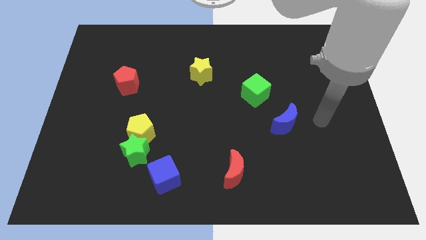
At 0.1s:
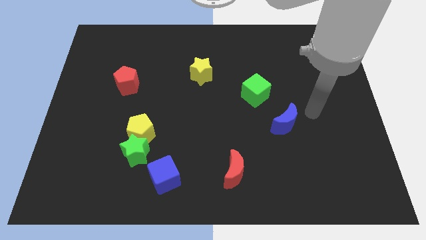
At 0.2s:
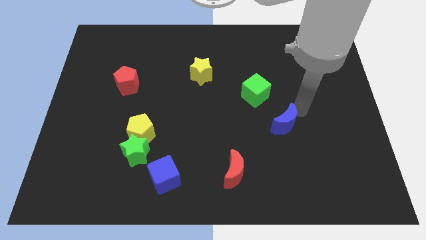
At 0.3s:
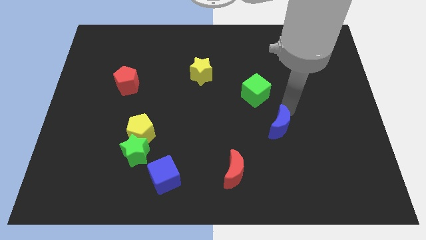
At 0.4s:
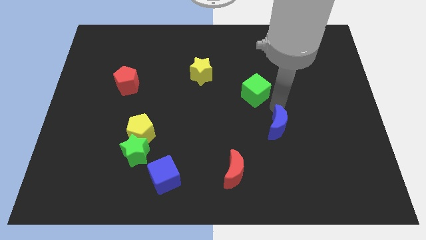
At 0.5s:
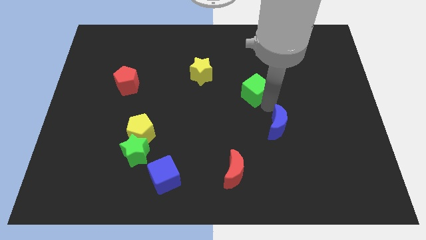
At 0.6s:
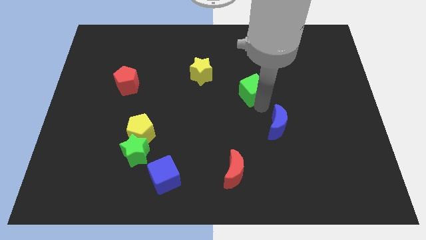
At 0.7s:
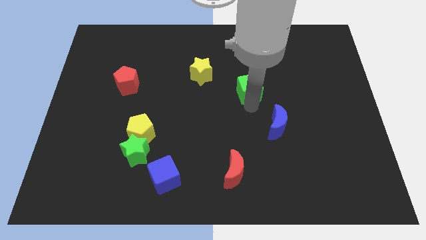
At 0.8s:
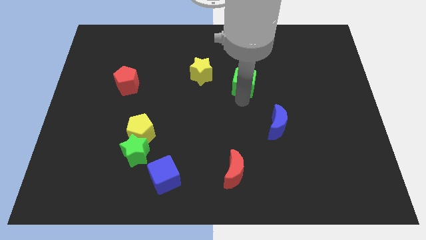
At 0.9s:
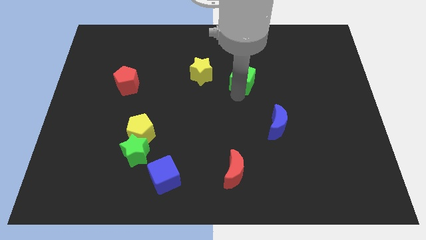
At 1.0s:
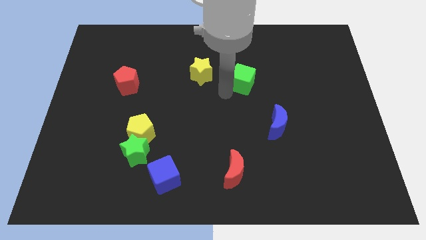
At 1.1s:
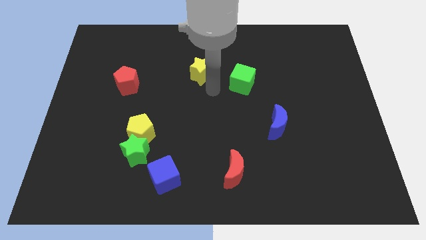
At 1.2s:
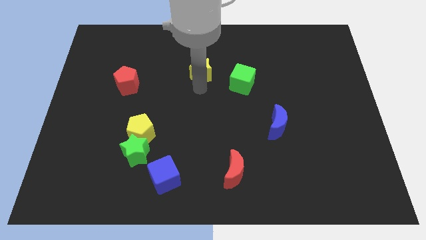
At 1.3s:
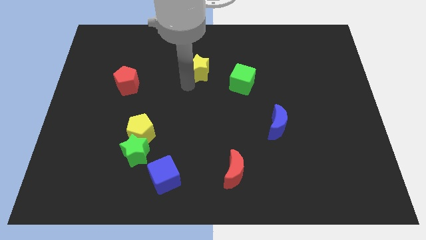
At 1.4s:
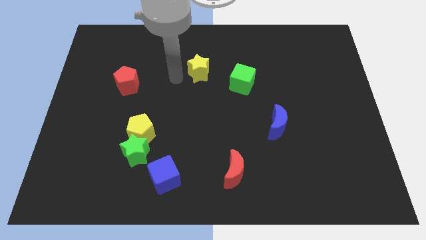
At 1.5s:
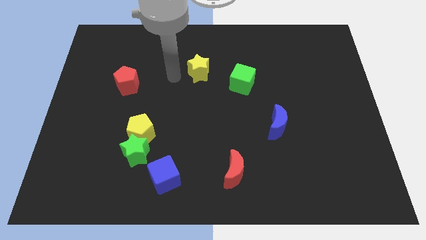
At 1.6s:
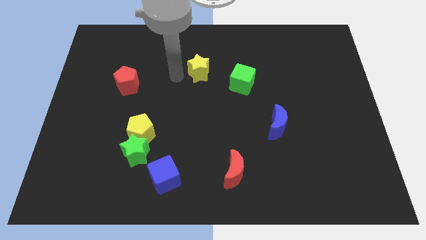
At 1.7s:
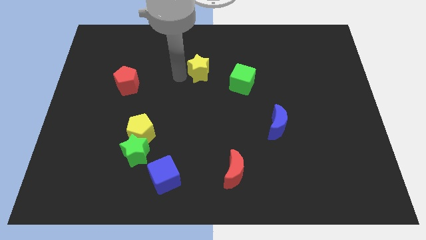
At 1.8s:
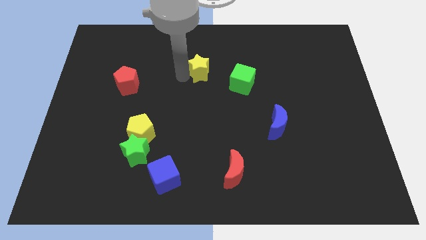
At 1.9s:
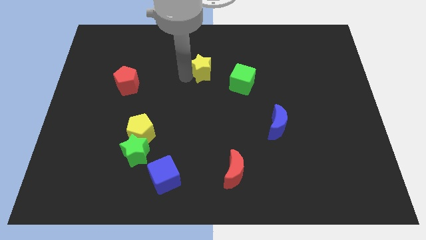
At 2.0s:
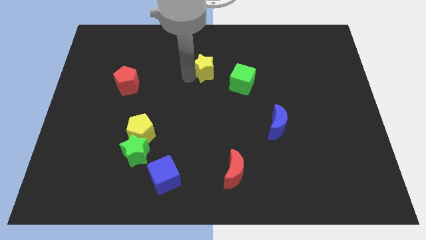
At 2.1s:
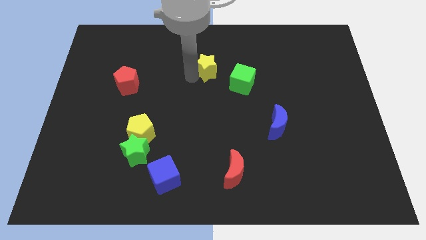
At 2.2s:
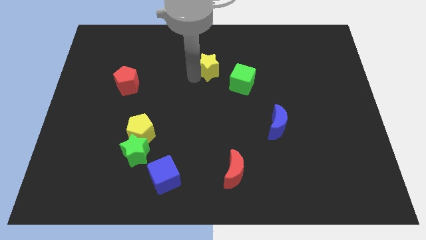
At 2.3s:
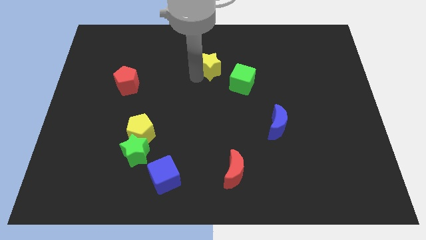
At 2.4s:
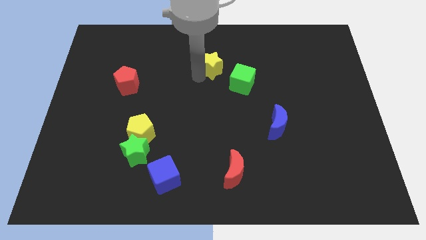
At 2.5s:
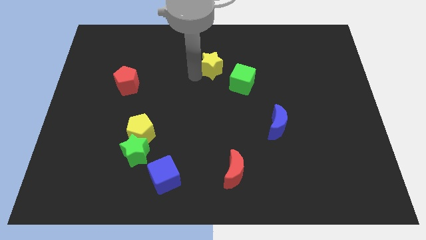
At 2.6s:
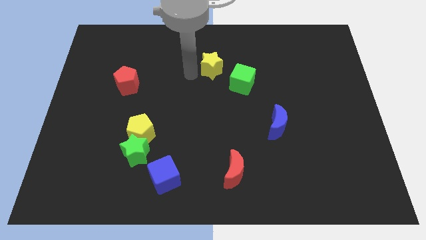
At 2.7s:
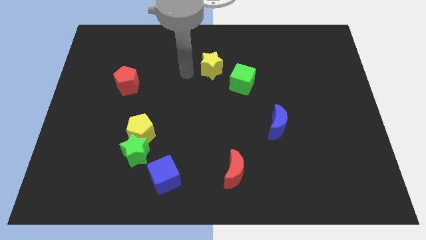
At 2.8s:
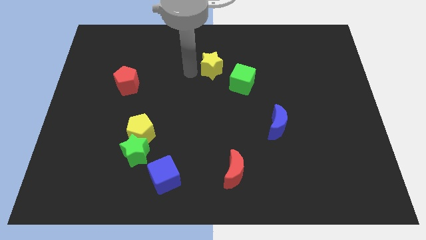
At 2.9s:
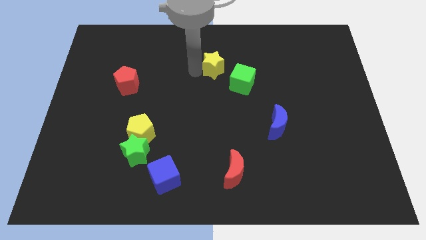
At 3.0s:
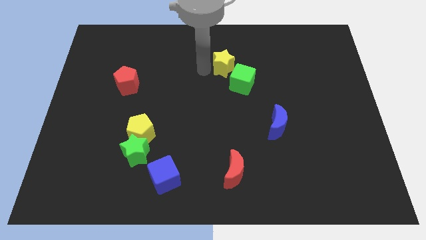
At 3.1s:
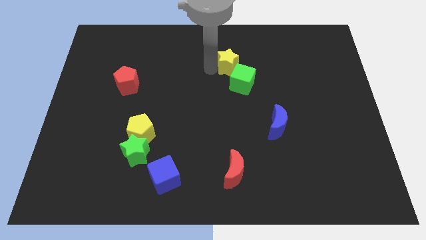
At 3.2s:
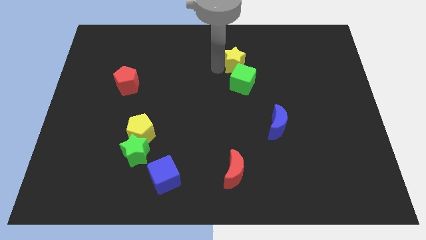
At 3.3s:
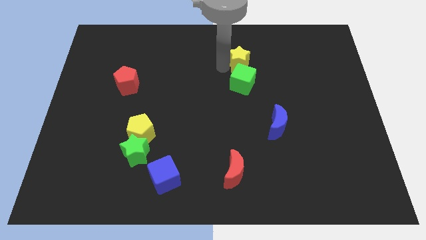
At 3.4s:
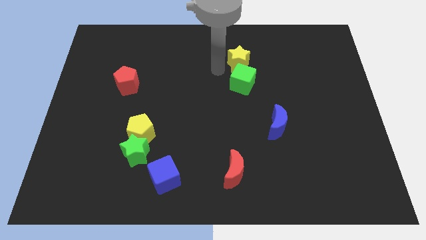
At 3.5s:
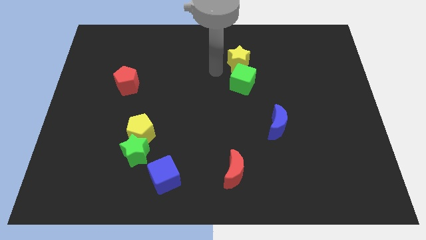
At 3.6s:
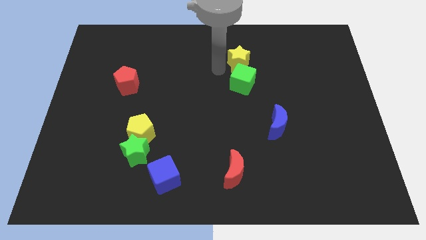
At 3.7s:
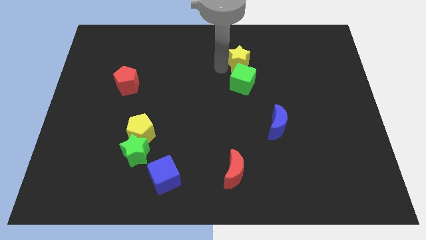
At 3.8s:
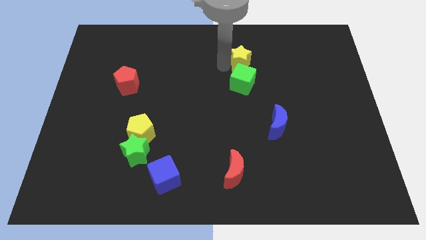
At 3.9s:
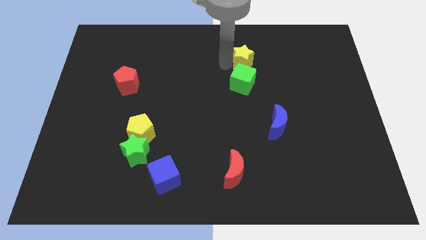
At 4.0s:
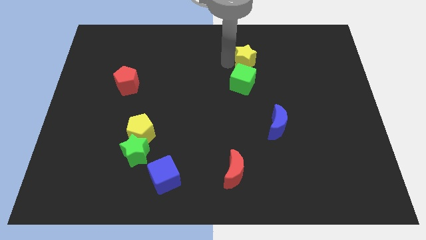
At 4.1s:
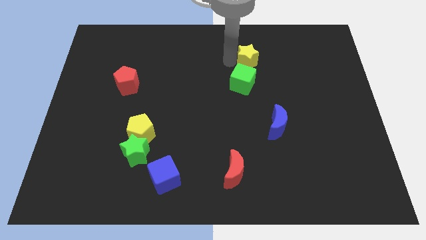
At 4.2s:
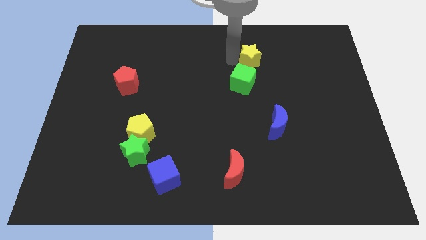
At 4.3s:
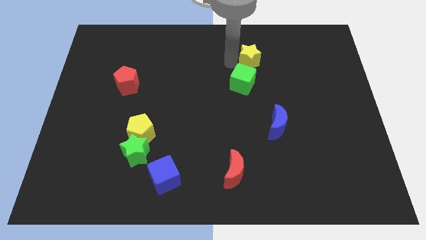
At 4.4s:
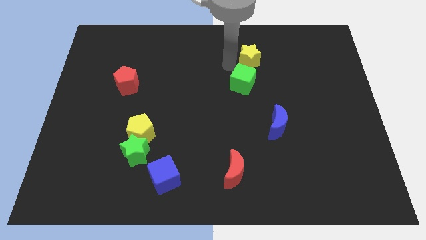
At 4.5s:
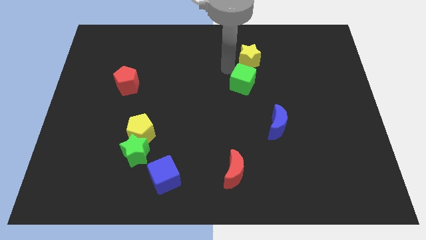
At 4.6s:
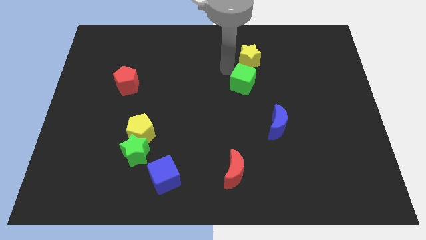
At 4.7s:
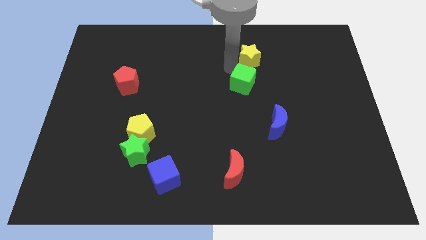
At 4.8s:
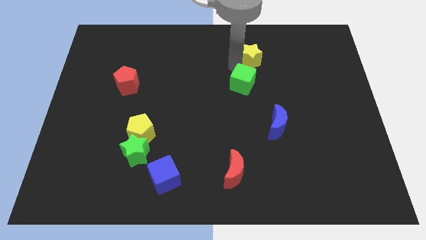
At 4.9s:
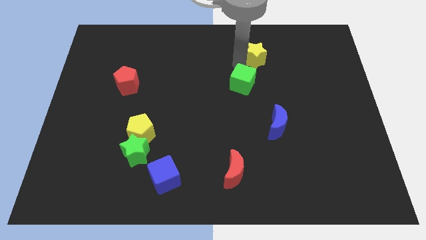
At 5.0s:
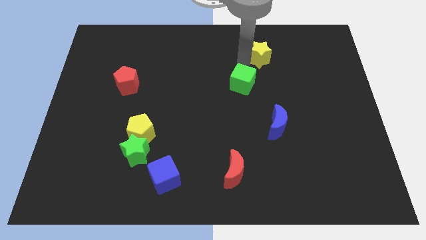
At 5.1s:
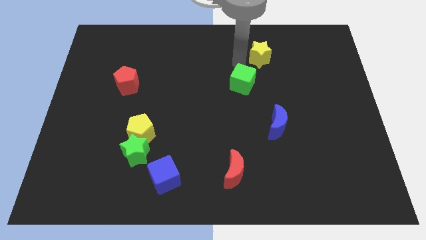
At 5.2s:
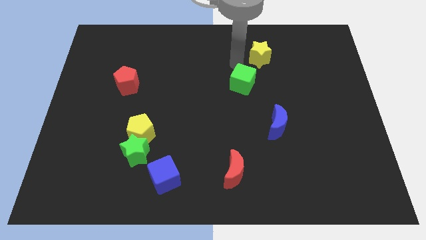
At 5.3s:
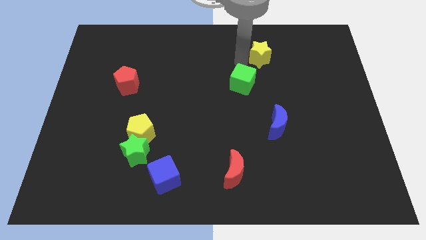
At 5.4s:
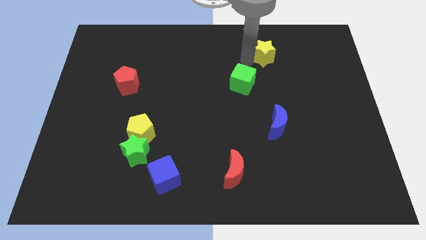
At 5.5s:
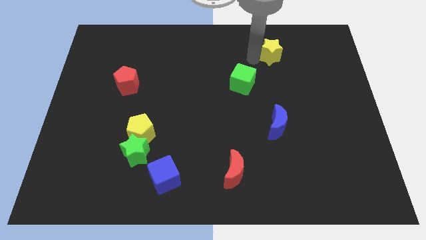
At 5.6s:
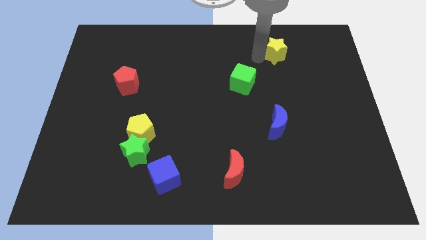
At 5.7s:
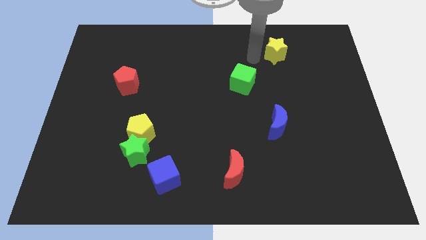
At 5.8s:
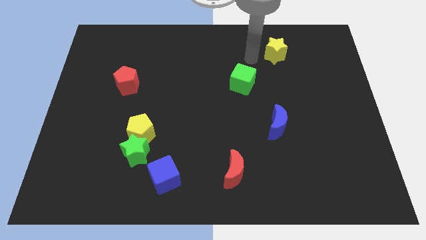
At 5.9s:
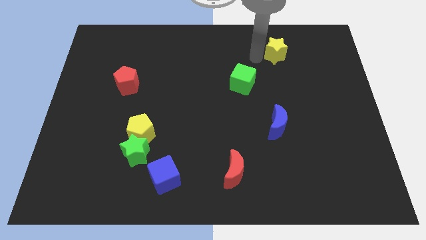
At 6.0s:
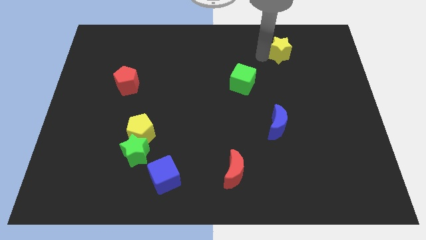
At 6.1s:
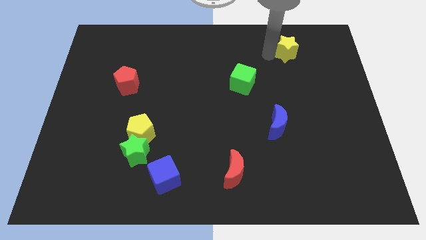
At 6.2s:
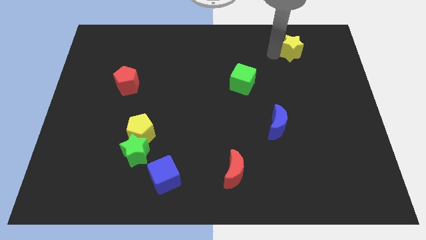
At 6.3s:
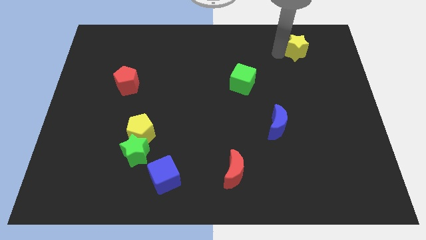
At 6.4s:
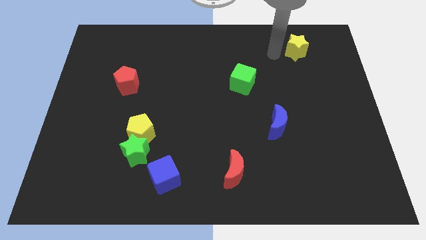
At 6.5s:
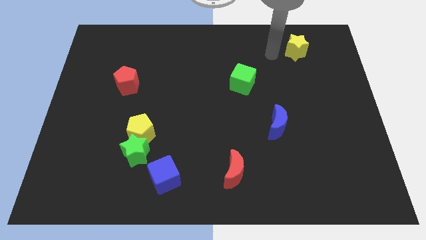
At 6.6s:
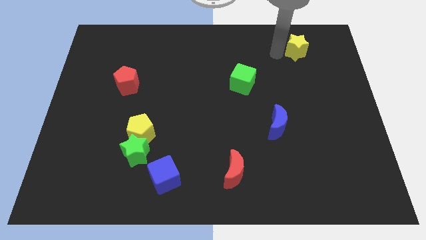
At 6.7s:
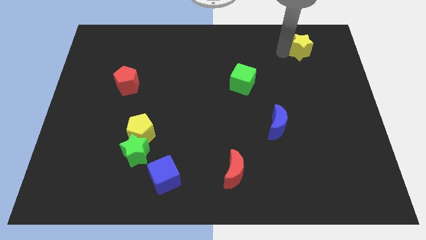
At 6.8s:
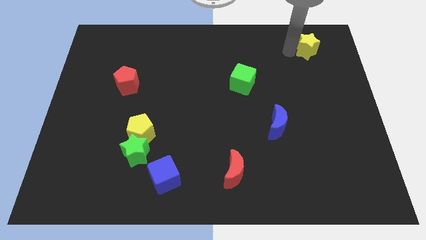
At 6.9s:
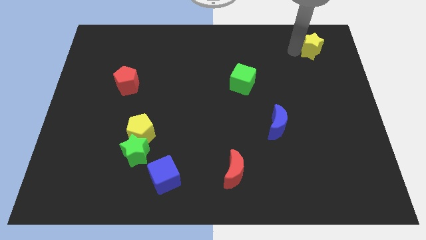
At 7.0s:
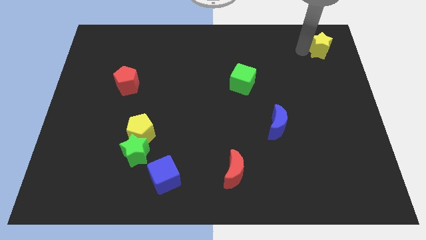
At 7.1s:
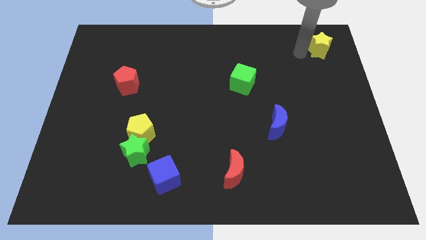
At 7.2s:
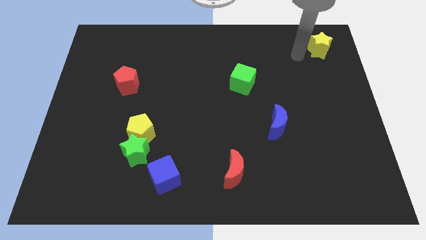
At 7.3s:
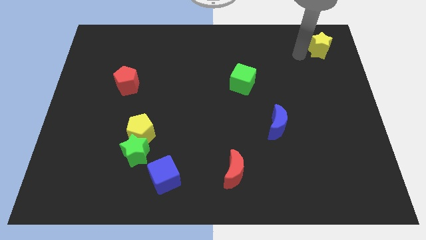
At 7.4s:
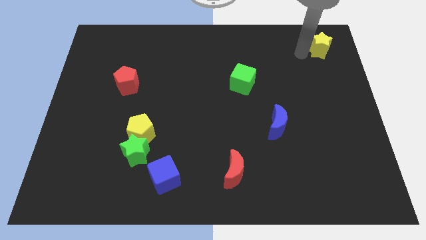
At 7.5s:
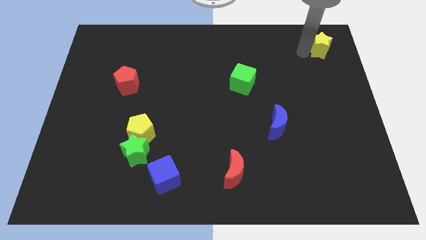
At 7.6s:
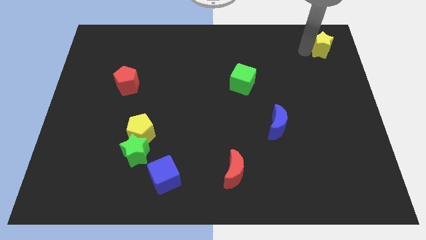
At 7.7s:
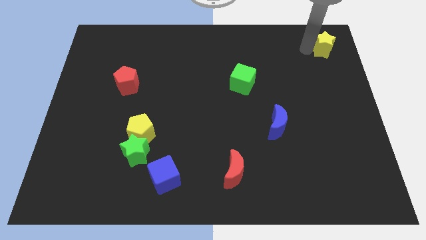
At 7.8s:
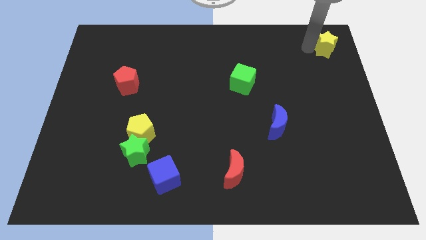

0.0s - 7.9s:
push the yellow star to the upper right corner
